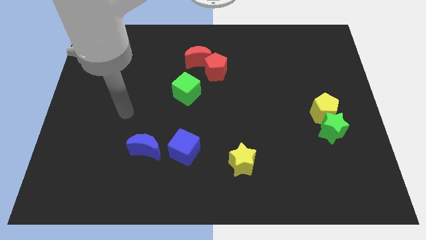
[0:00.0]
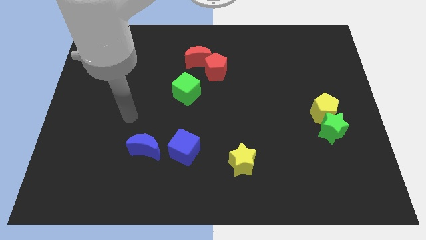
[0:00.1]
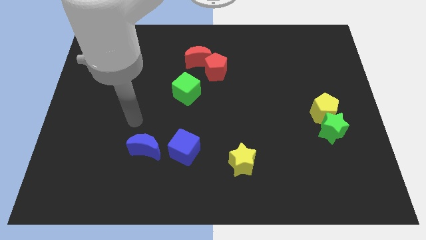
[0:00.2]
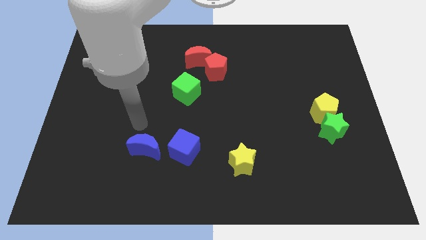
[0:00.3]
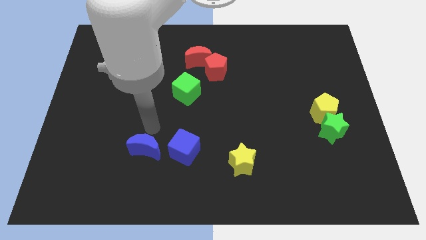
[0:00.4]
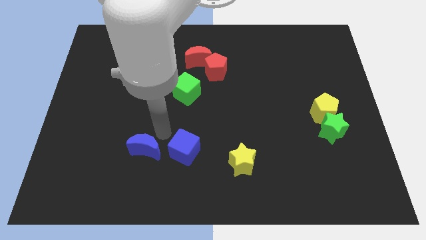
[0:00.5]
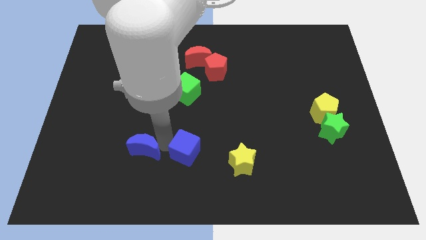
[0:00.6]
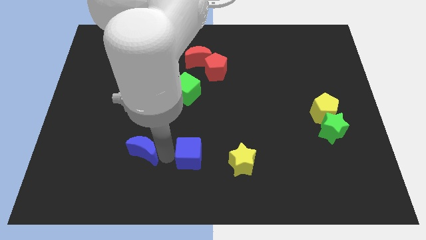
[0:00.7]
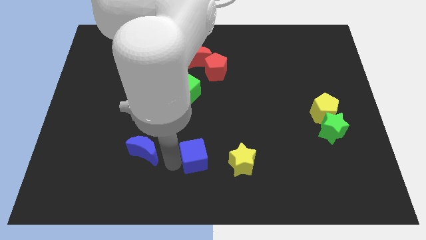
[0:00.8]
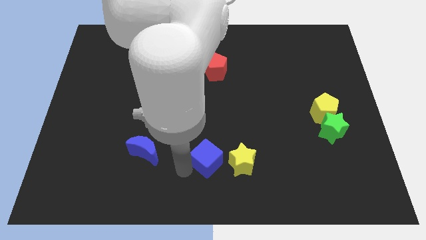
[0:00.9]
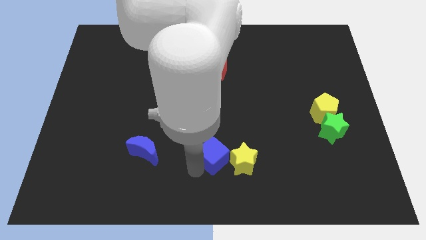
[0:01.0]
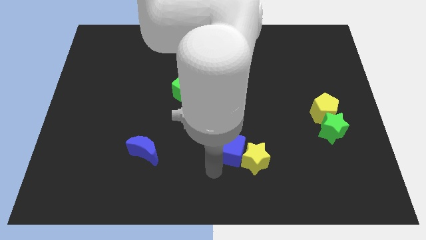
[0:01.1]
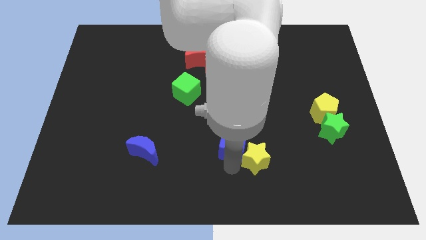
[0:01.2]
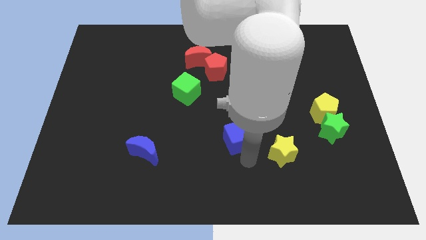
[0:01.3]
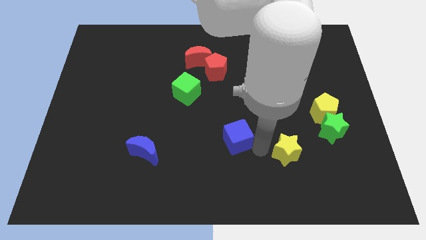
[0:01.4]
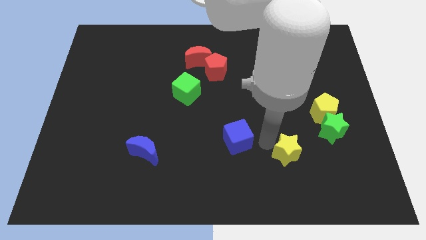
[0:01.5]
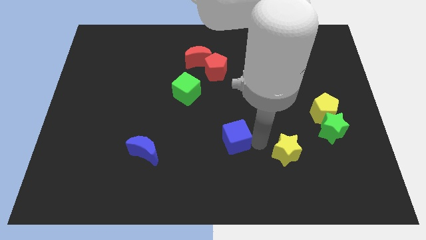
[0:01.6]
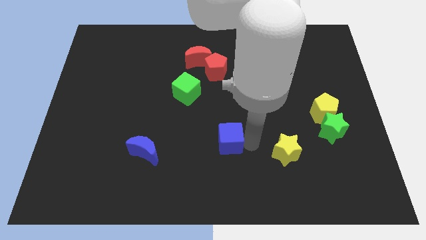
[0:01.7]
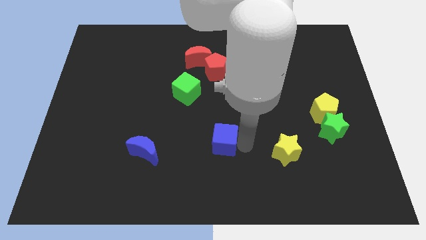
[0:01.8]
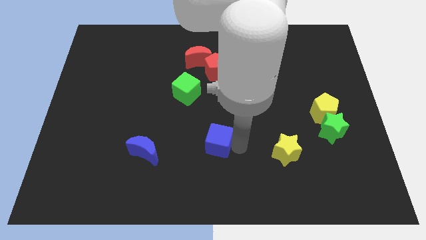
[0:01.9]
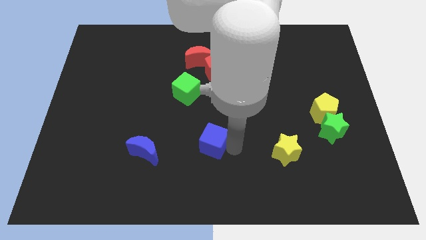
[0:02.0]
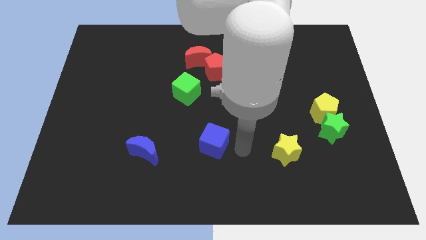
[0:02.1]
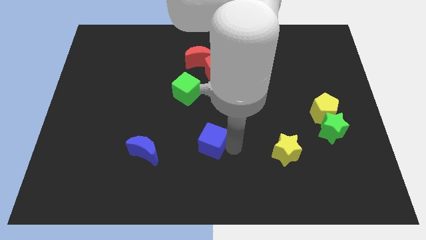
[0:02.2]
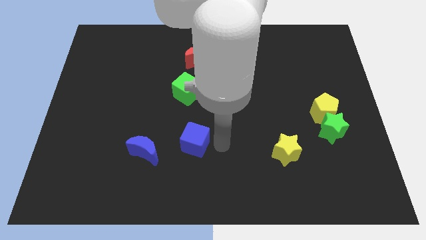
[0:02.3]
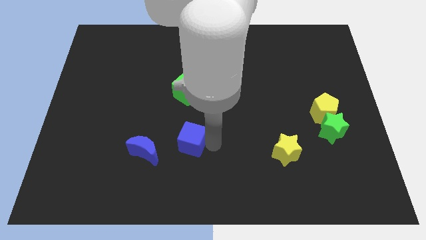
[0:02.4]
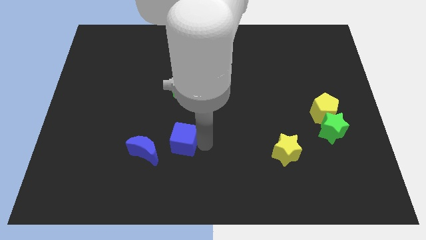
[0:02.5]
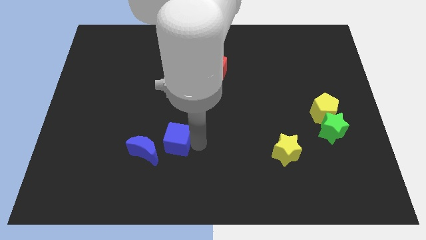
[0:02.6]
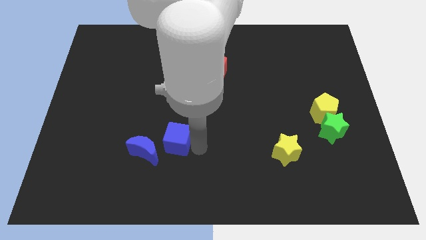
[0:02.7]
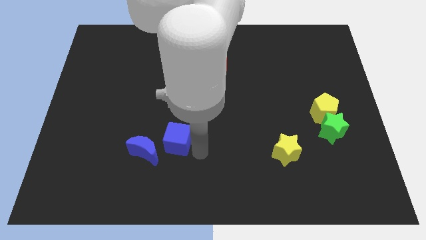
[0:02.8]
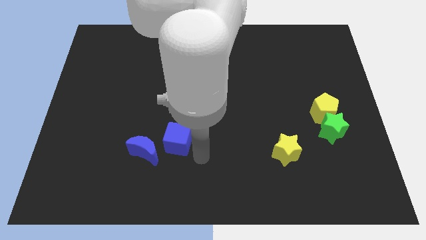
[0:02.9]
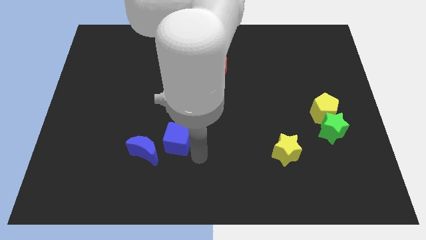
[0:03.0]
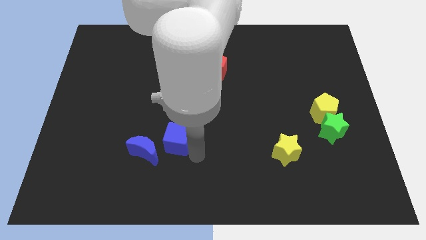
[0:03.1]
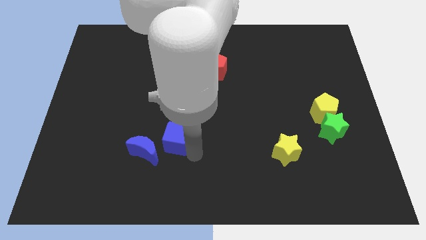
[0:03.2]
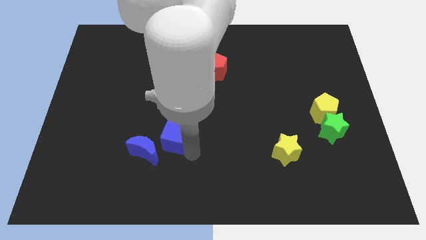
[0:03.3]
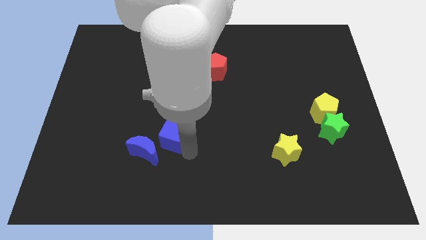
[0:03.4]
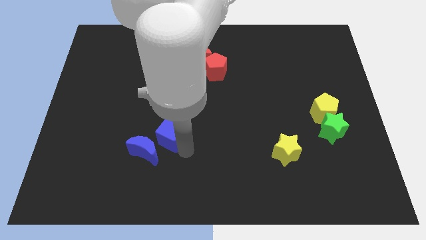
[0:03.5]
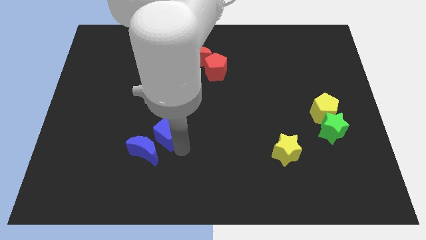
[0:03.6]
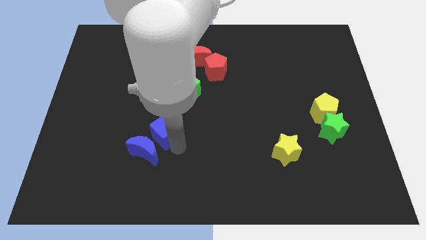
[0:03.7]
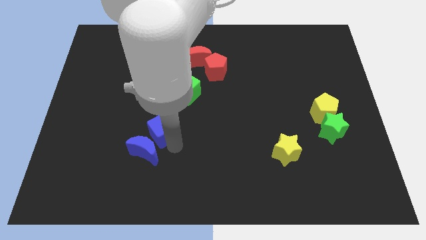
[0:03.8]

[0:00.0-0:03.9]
move the blue cube somewhat up and then left

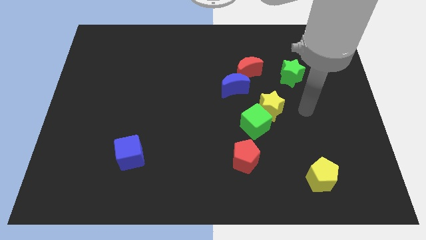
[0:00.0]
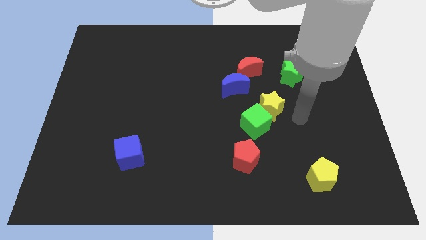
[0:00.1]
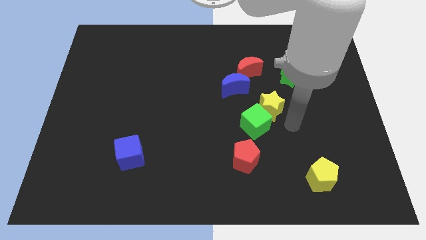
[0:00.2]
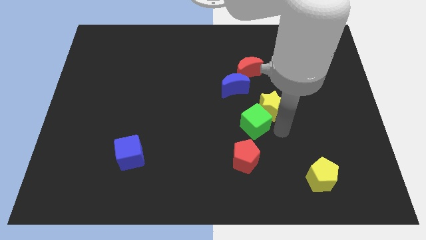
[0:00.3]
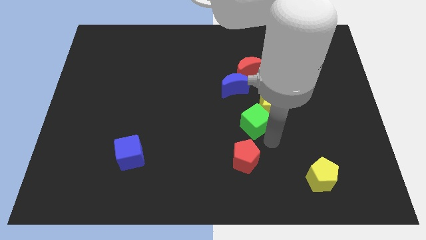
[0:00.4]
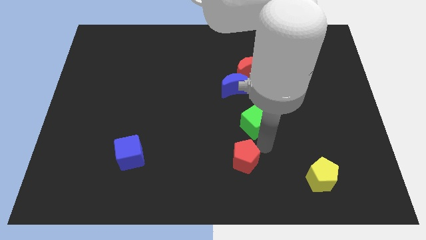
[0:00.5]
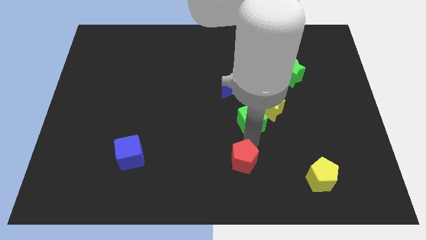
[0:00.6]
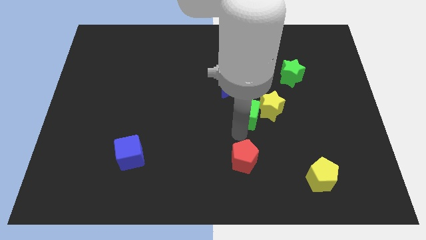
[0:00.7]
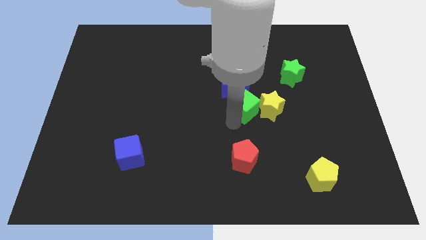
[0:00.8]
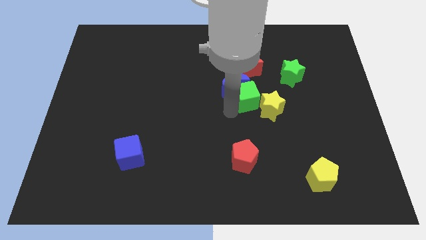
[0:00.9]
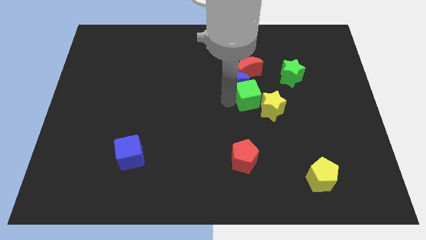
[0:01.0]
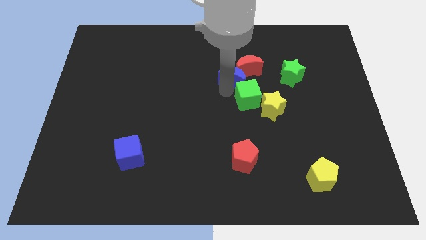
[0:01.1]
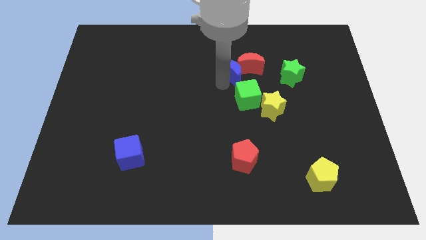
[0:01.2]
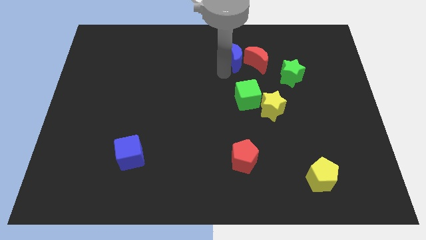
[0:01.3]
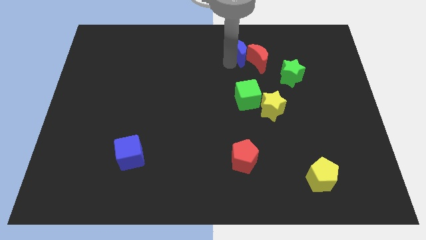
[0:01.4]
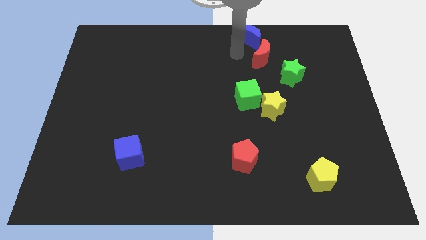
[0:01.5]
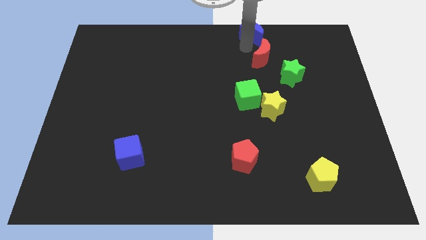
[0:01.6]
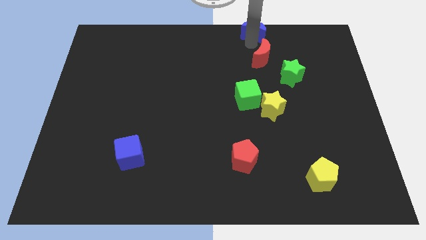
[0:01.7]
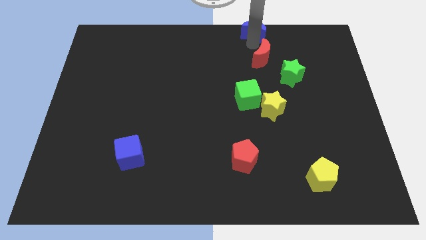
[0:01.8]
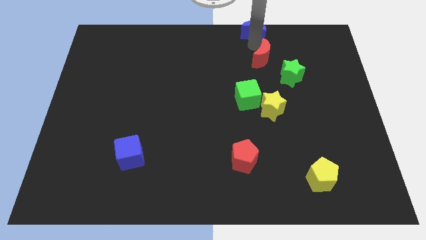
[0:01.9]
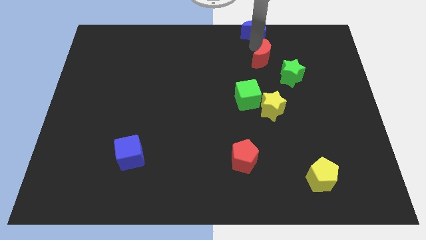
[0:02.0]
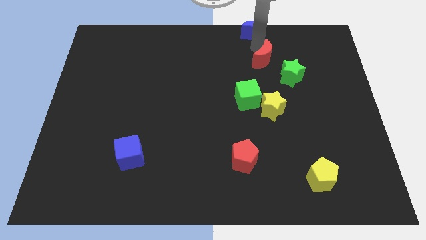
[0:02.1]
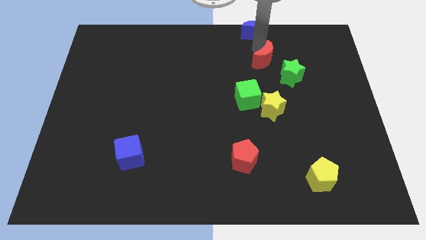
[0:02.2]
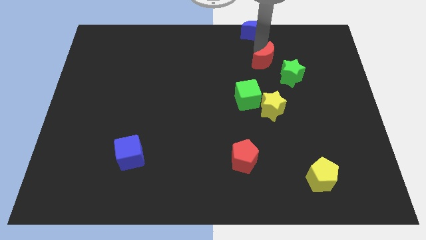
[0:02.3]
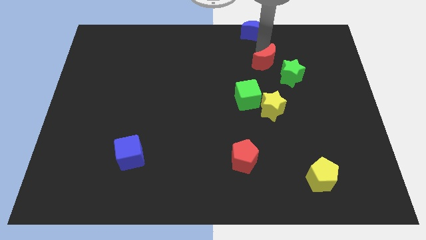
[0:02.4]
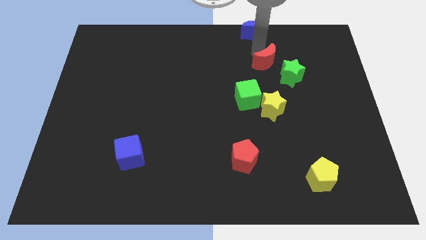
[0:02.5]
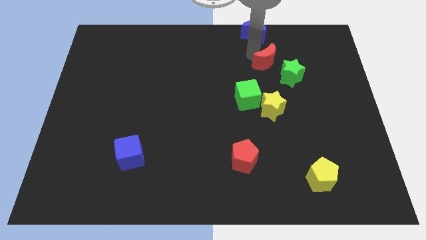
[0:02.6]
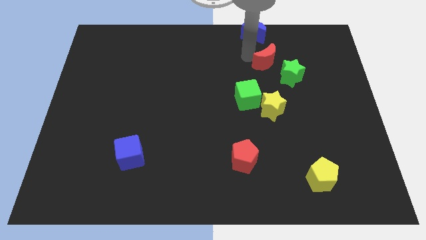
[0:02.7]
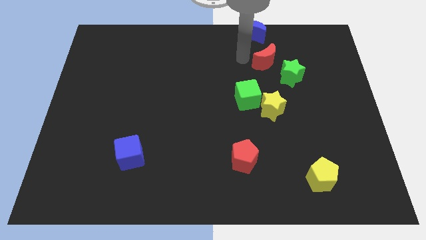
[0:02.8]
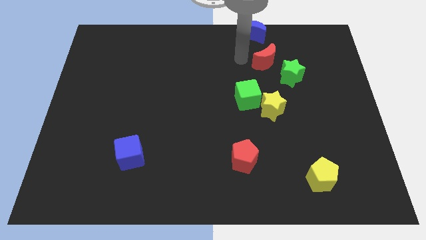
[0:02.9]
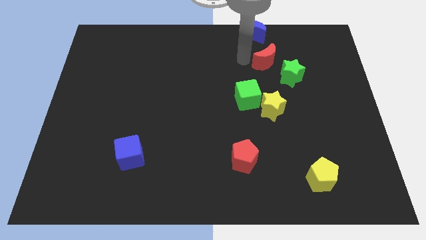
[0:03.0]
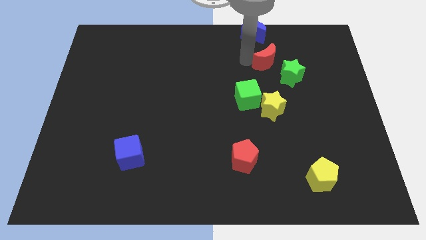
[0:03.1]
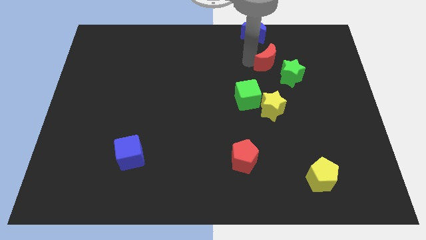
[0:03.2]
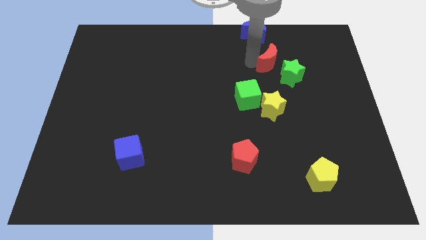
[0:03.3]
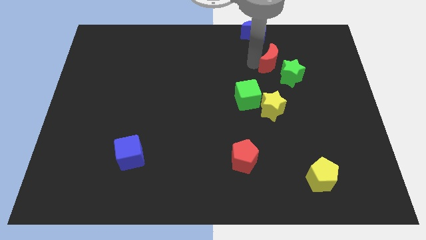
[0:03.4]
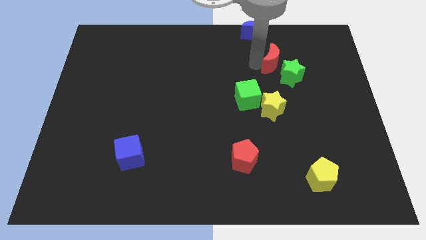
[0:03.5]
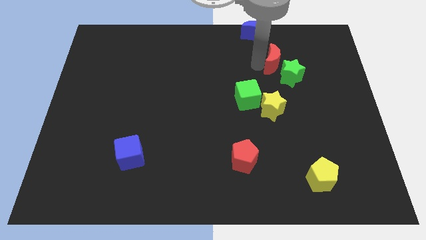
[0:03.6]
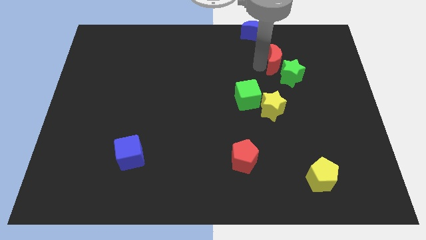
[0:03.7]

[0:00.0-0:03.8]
slightly slide the red moon right

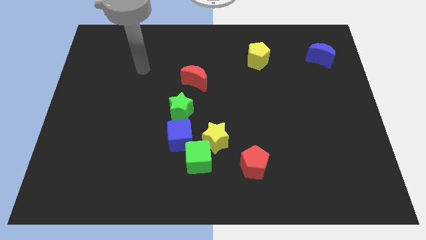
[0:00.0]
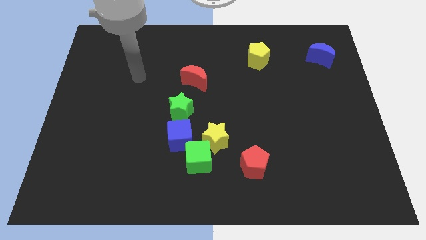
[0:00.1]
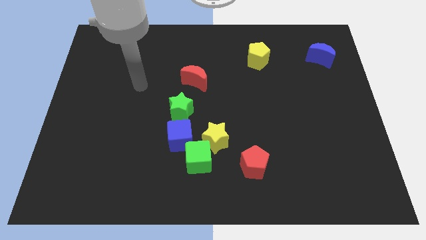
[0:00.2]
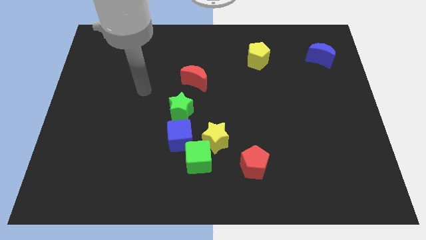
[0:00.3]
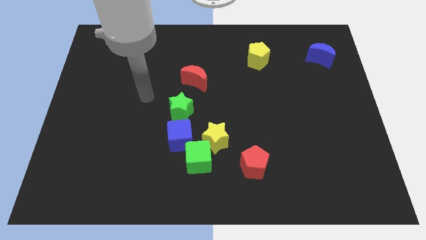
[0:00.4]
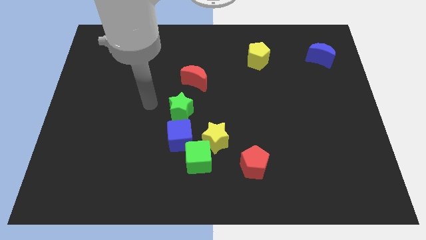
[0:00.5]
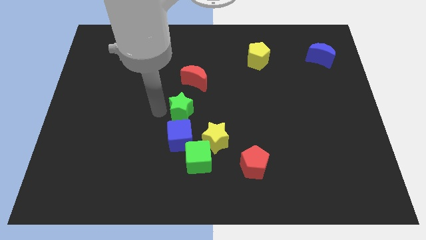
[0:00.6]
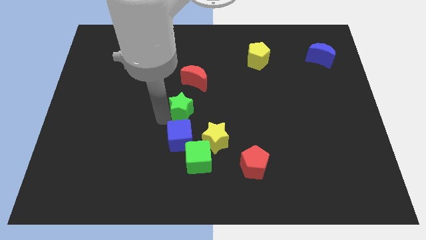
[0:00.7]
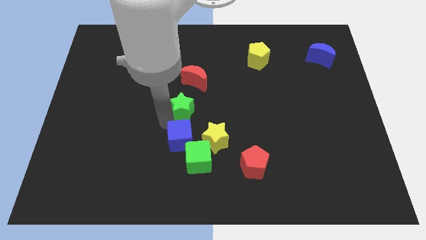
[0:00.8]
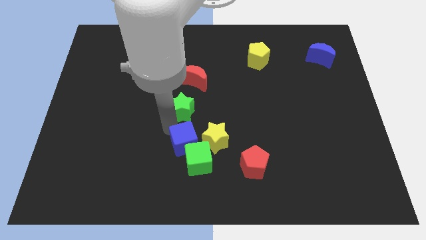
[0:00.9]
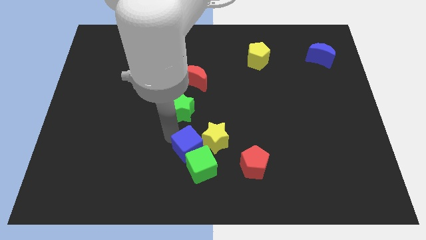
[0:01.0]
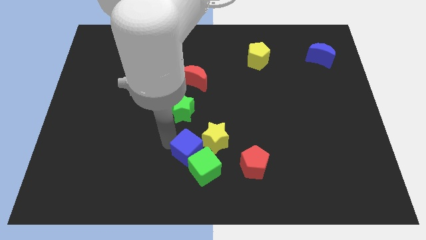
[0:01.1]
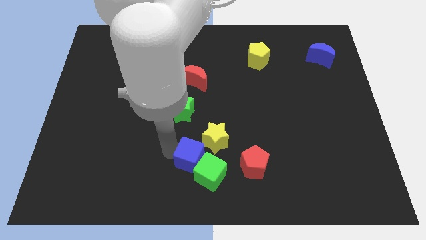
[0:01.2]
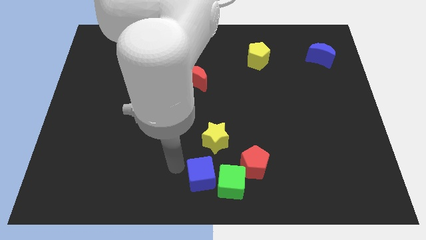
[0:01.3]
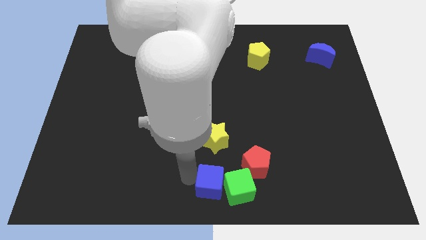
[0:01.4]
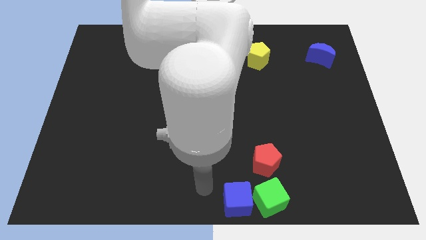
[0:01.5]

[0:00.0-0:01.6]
push the green cube a little to the right
